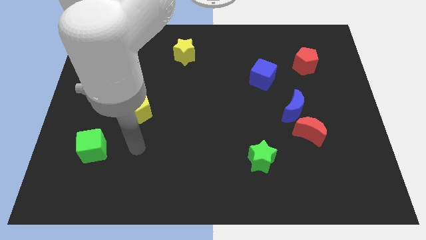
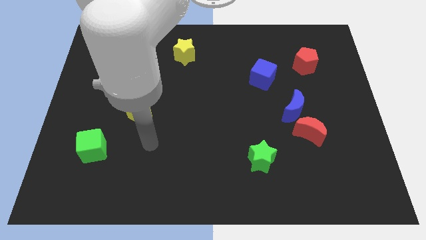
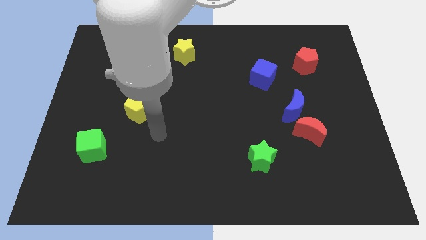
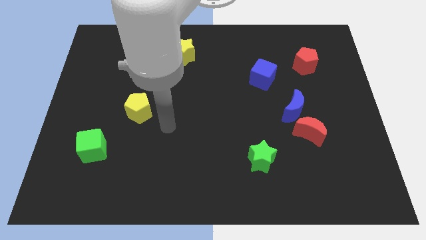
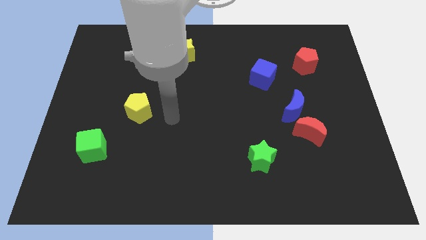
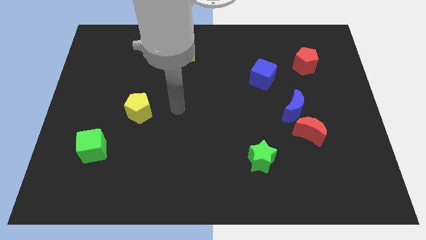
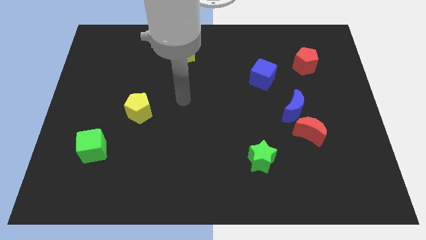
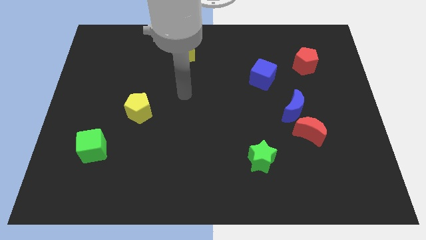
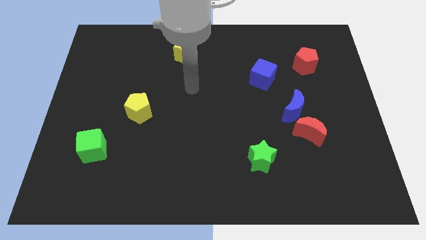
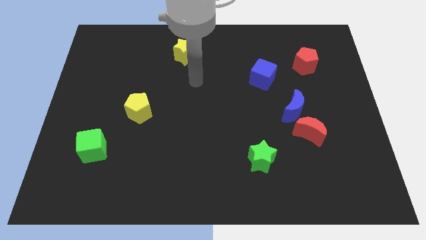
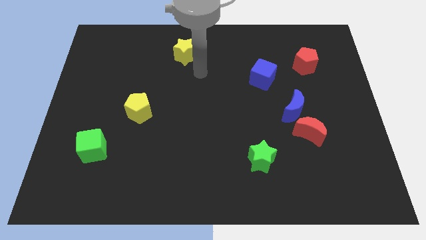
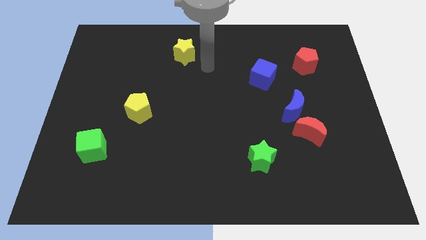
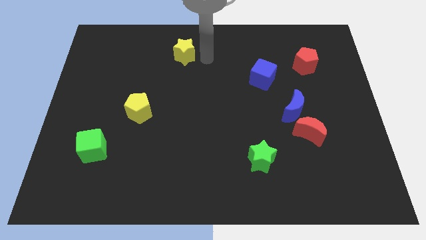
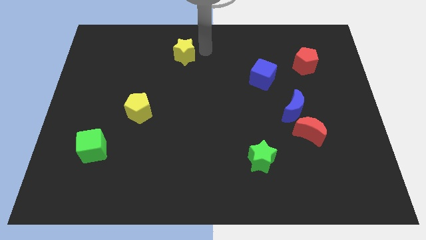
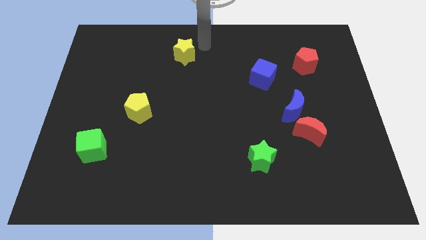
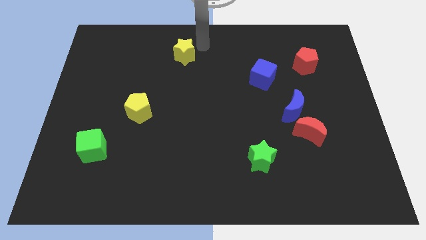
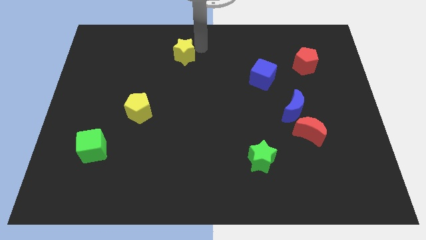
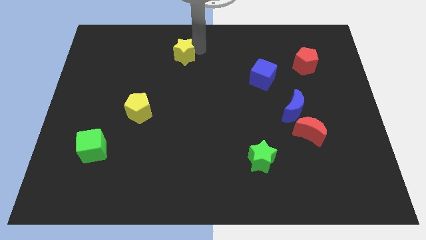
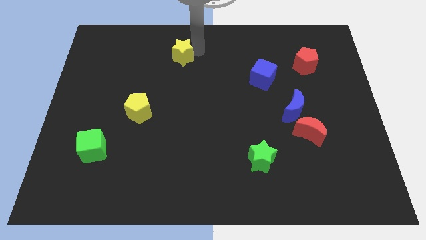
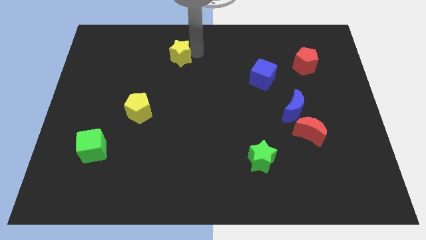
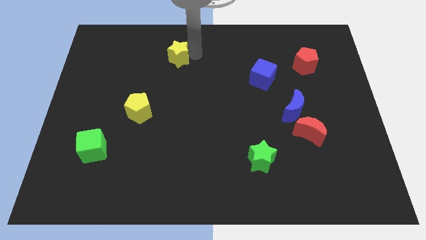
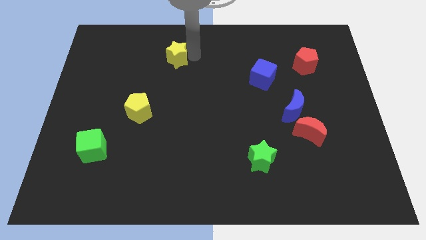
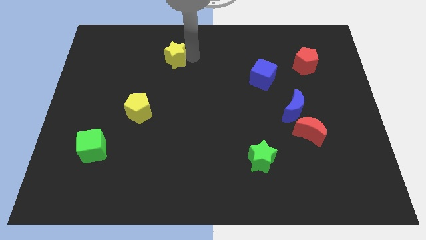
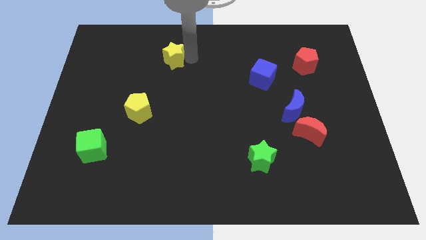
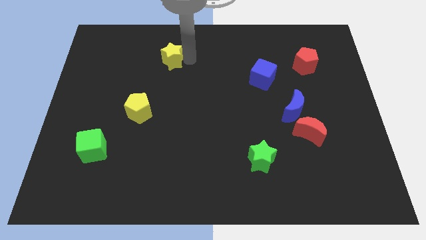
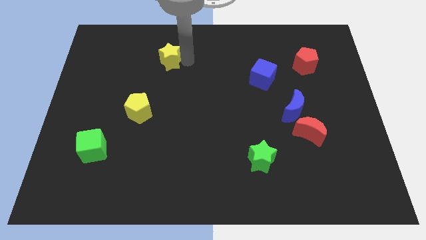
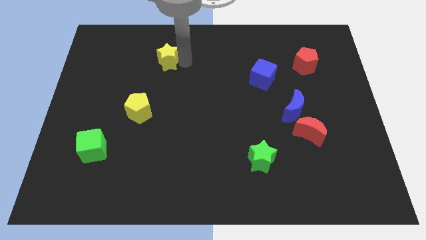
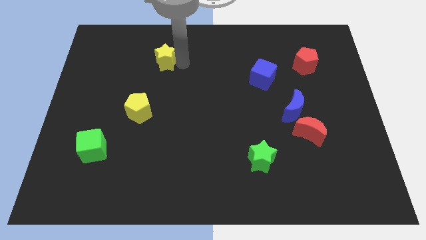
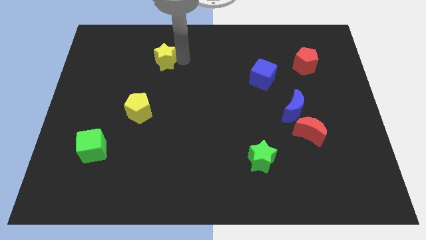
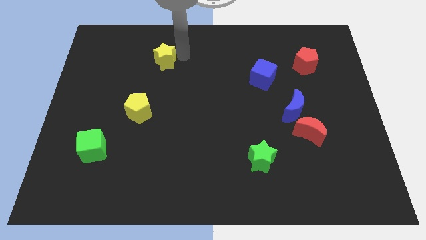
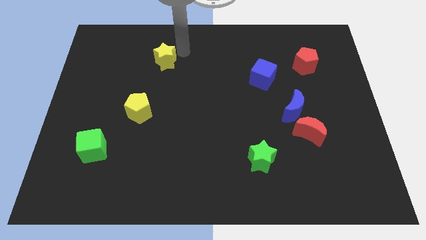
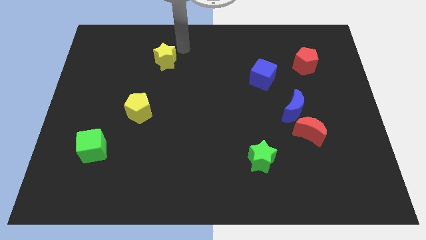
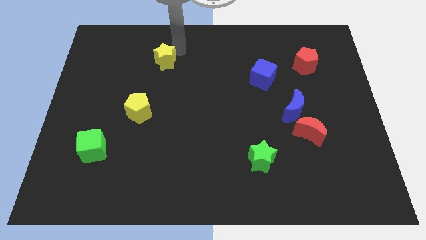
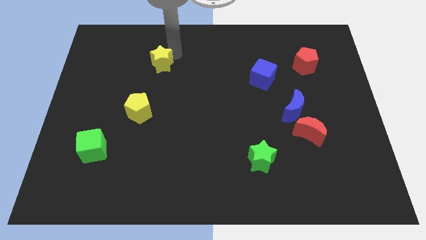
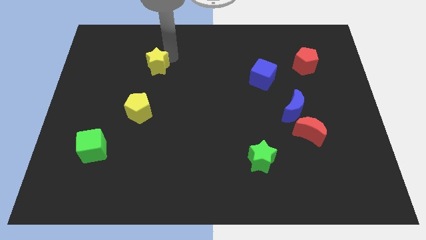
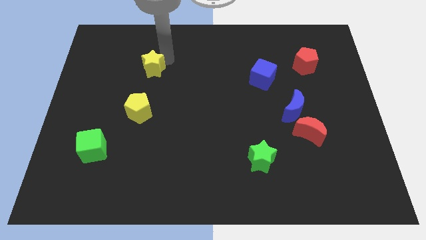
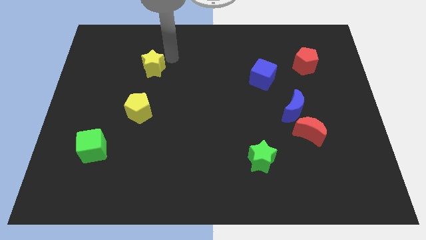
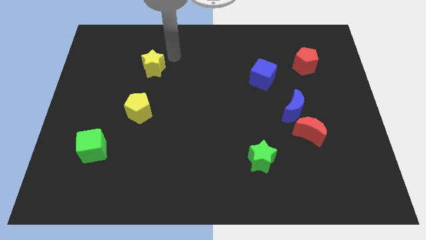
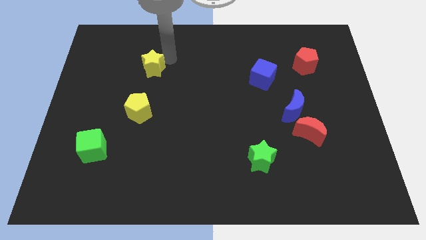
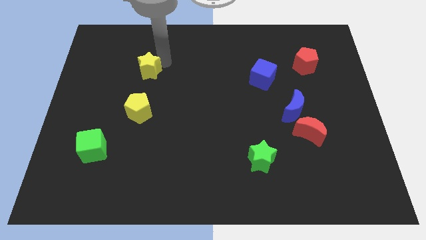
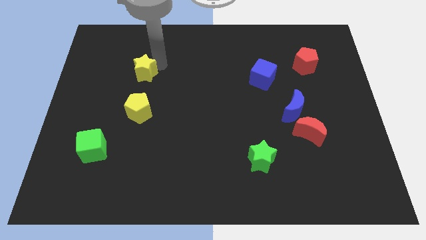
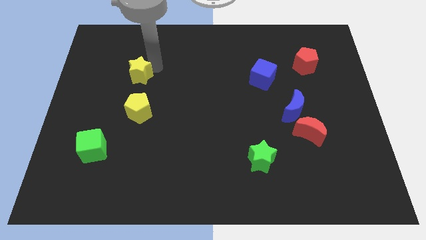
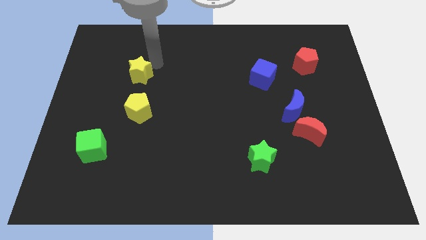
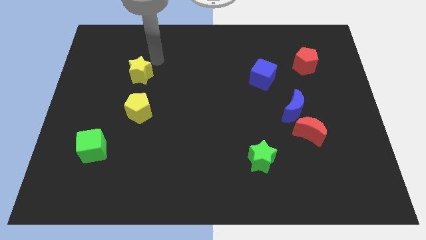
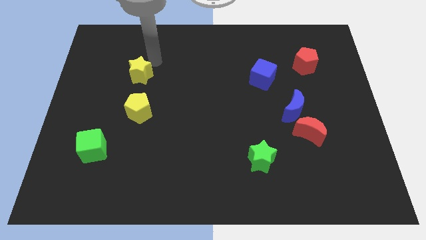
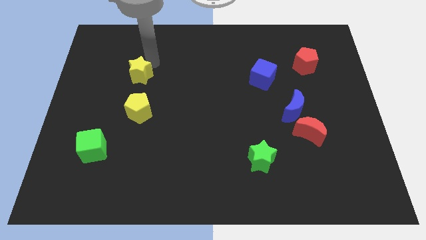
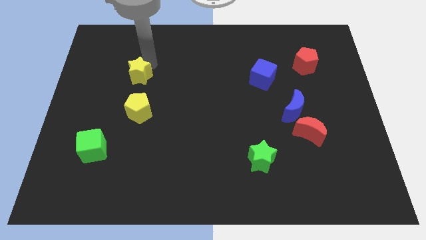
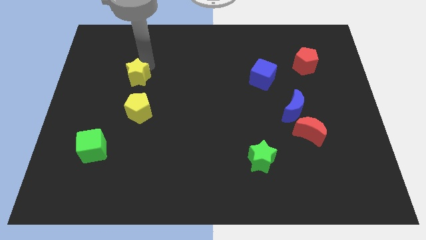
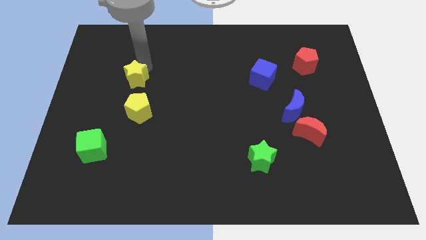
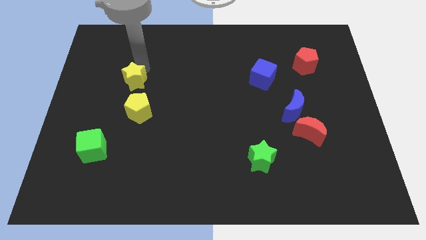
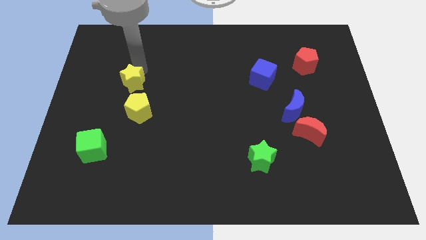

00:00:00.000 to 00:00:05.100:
put the yellow star diagonally up and to the left of the yellow pentagon

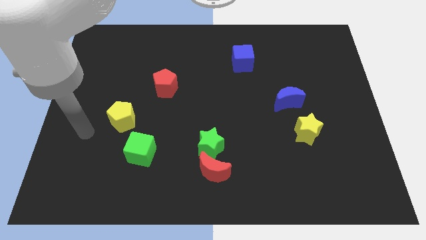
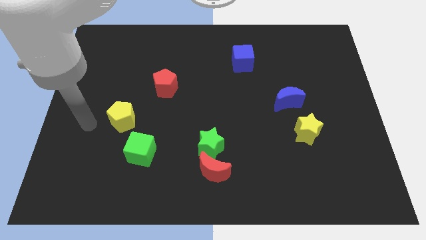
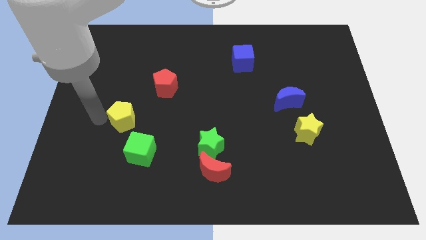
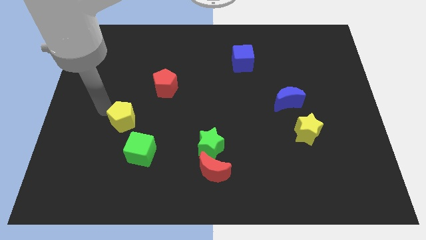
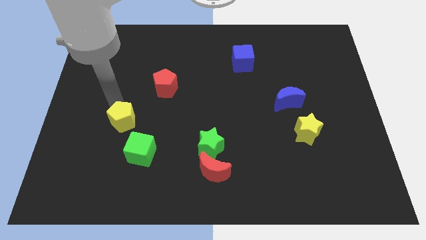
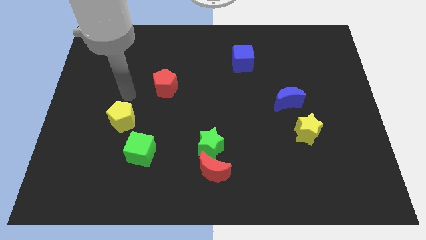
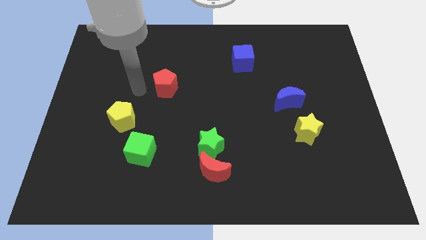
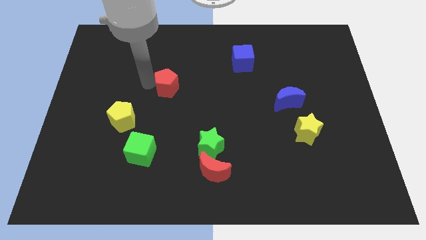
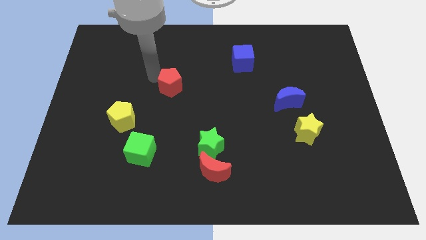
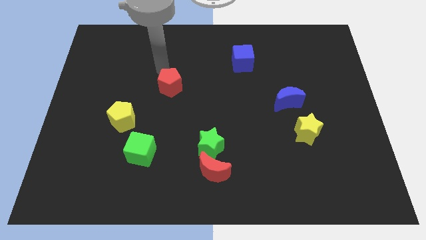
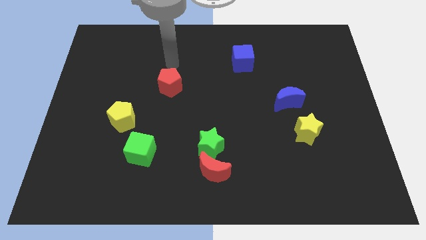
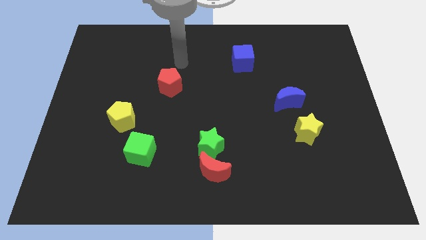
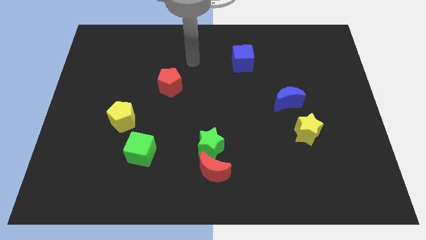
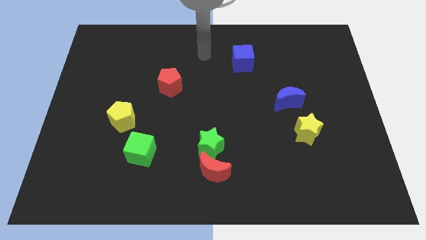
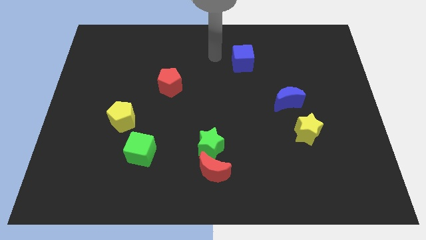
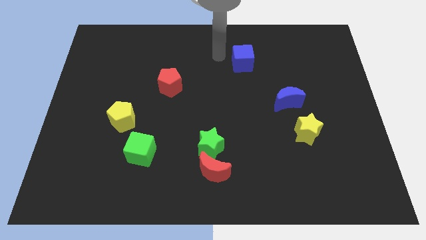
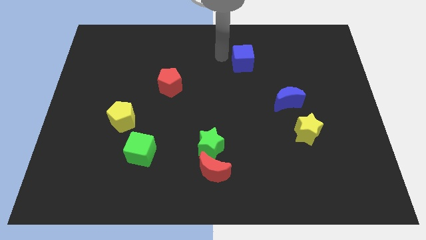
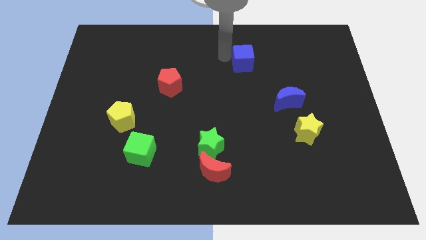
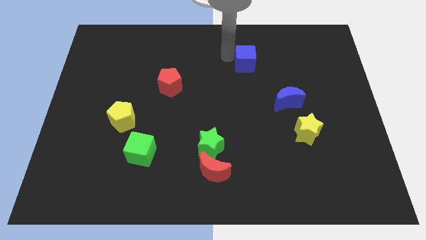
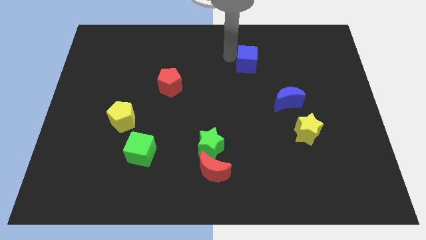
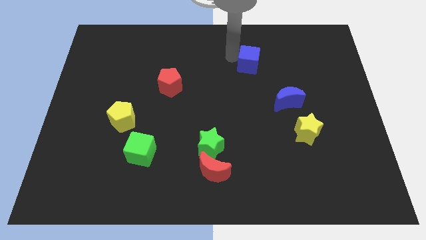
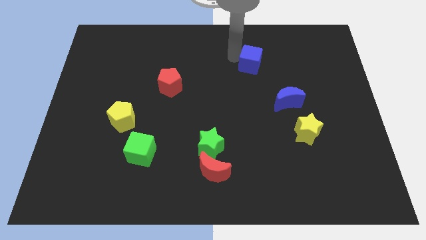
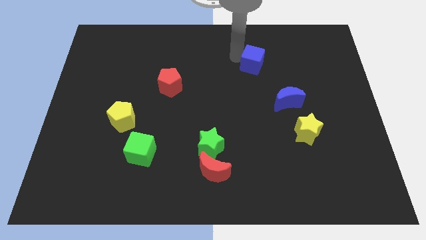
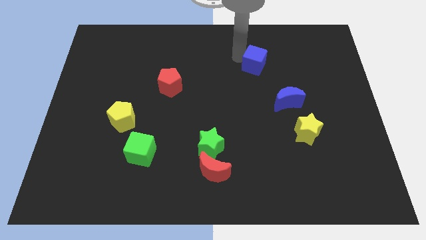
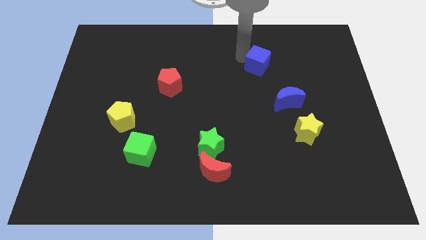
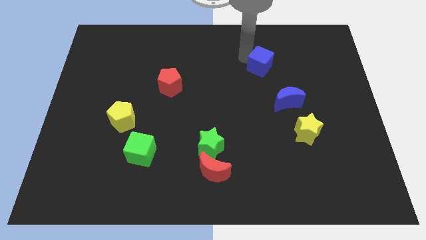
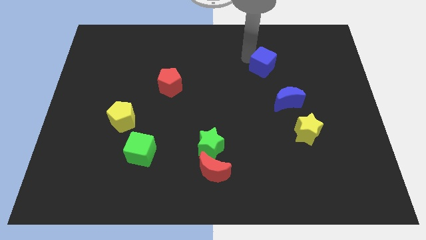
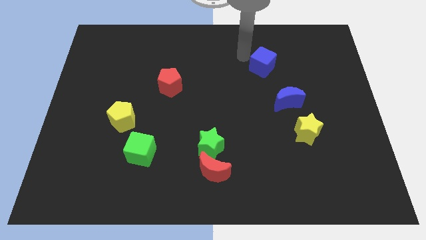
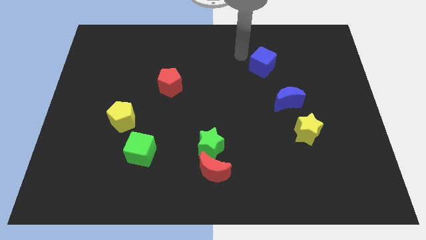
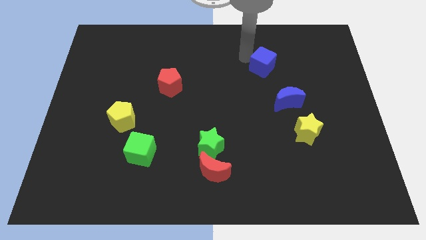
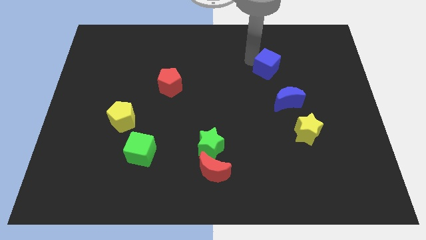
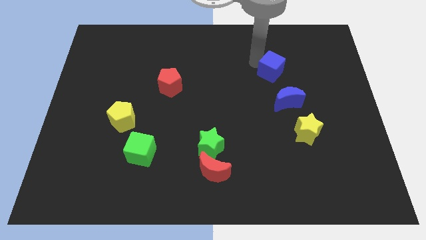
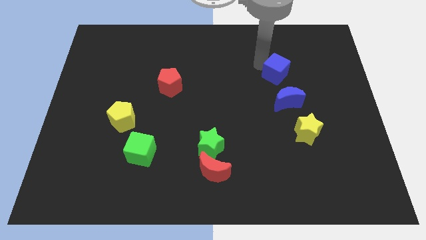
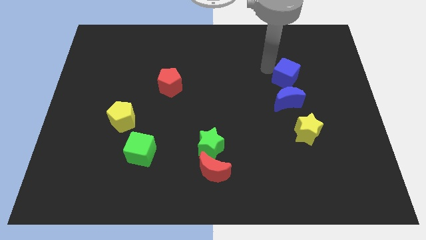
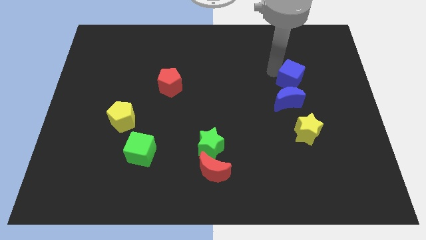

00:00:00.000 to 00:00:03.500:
put the blue cube diagonally up and to the right of the blue moon
